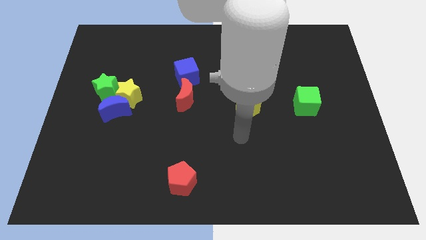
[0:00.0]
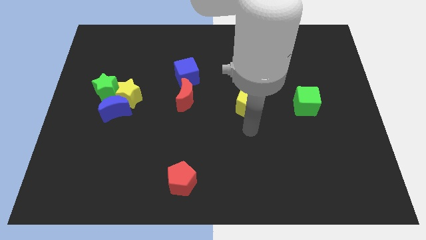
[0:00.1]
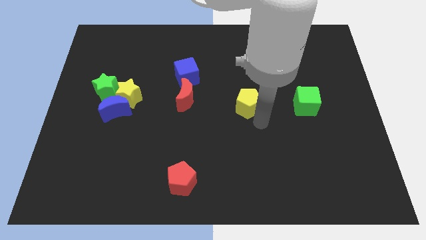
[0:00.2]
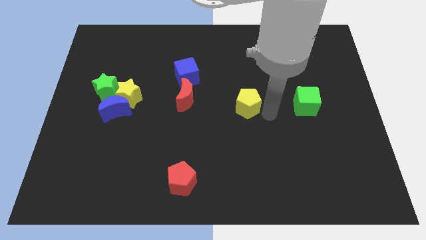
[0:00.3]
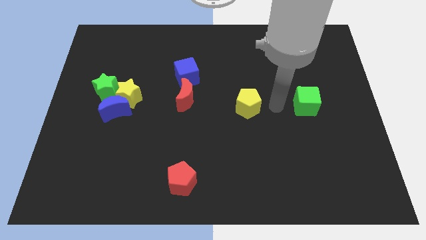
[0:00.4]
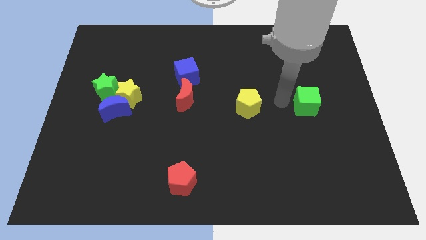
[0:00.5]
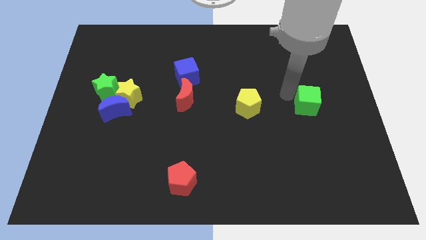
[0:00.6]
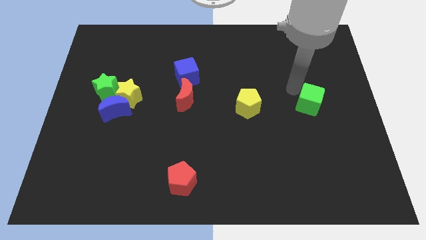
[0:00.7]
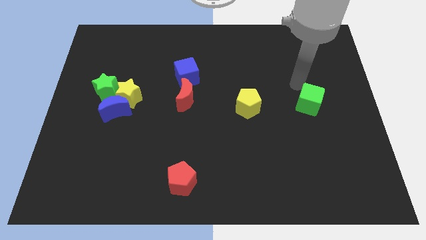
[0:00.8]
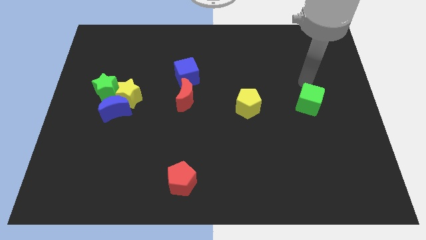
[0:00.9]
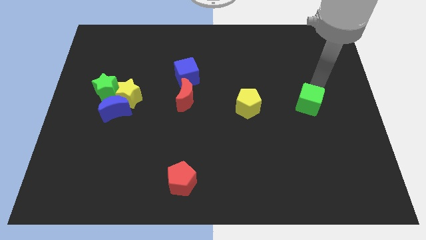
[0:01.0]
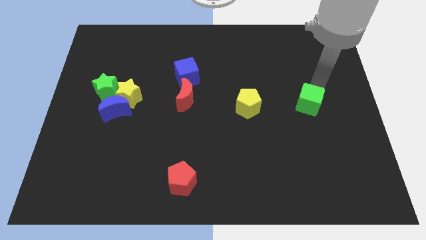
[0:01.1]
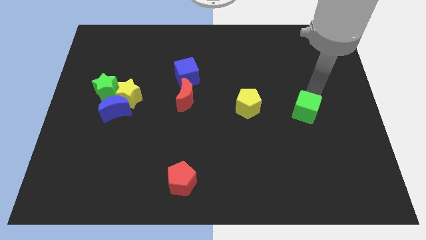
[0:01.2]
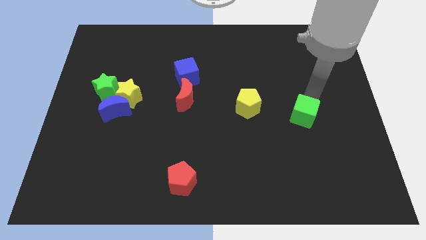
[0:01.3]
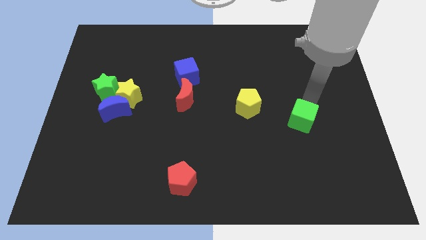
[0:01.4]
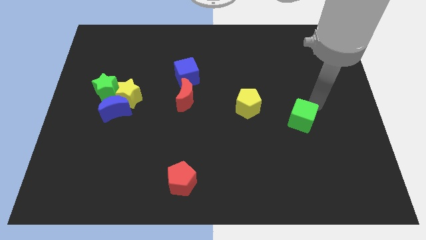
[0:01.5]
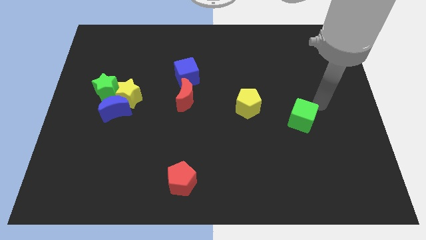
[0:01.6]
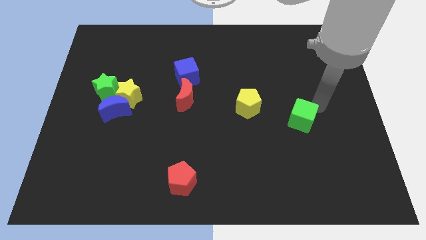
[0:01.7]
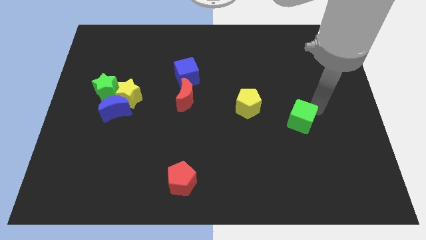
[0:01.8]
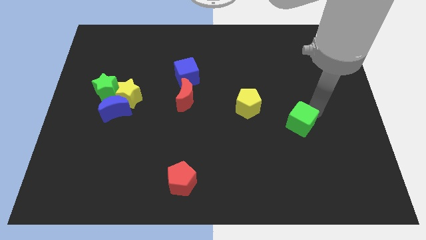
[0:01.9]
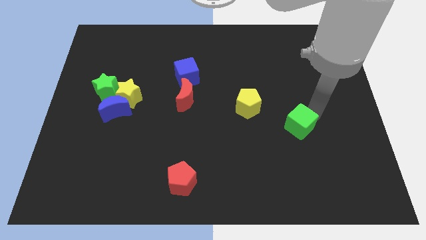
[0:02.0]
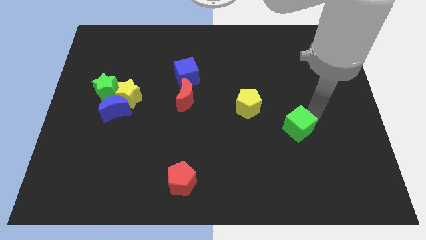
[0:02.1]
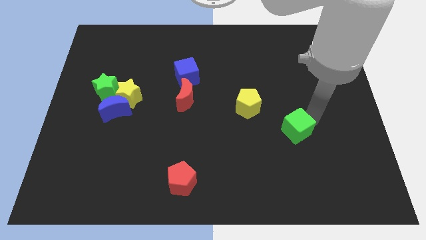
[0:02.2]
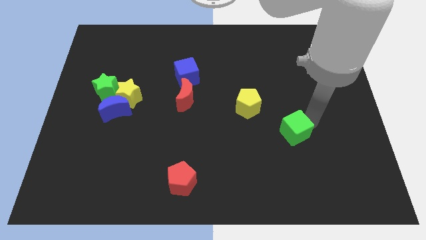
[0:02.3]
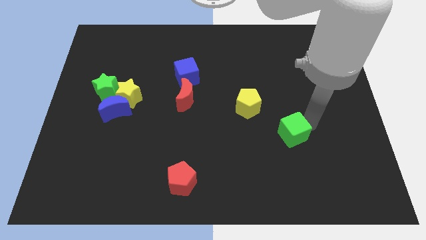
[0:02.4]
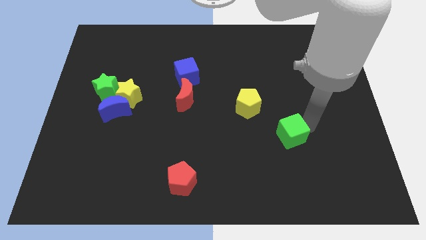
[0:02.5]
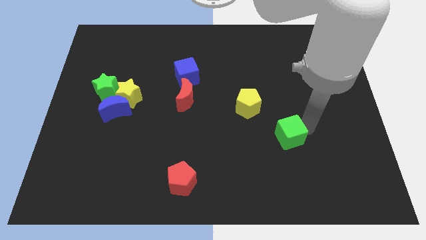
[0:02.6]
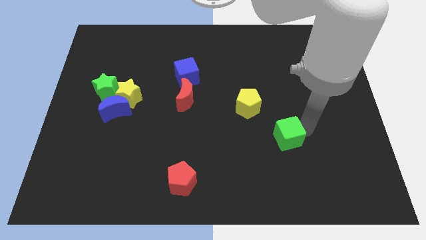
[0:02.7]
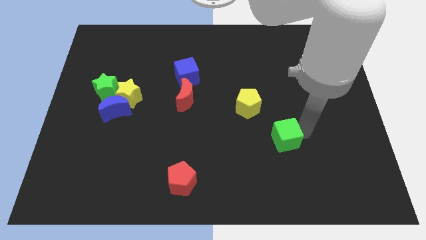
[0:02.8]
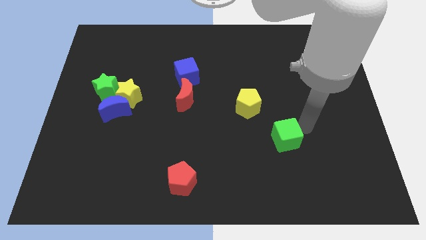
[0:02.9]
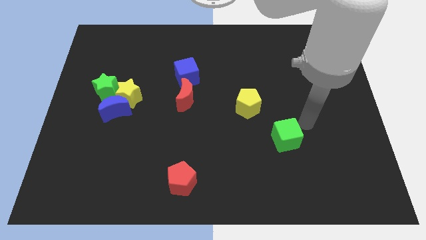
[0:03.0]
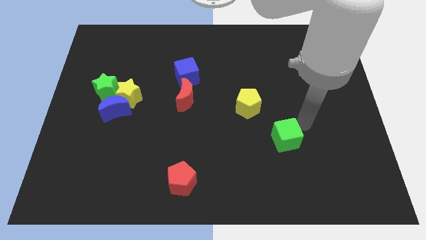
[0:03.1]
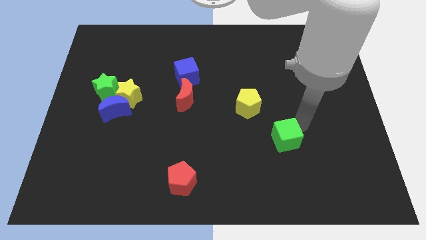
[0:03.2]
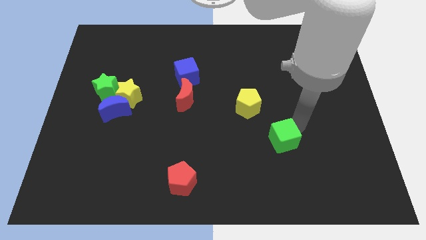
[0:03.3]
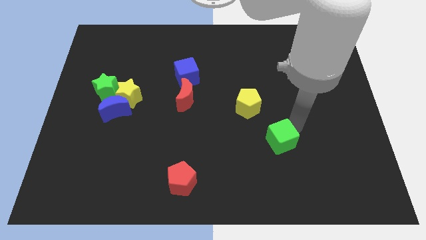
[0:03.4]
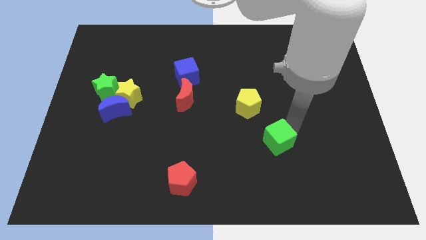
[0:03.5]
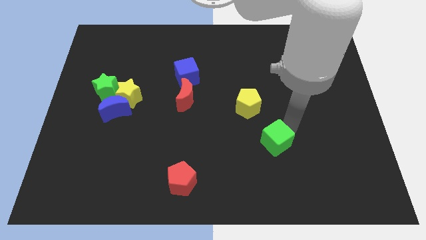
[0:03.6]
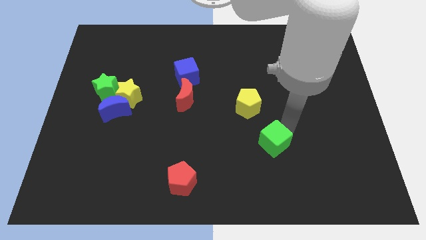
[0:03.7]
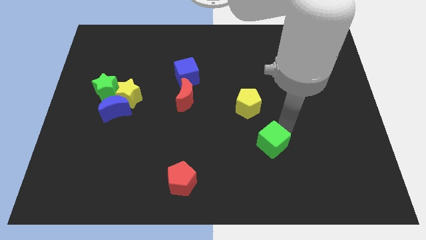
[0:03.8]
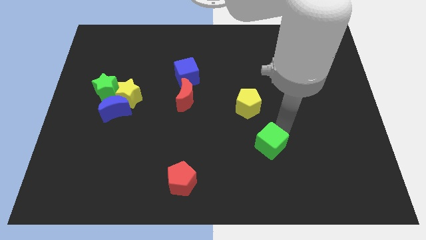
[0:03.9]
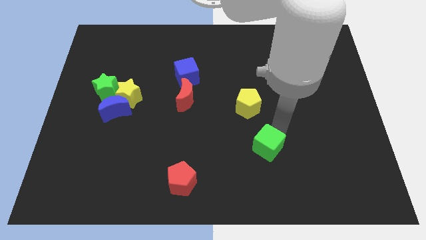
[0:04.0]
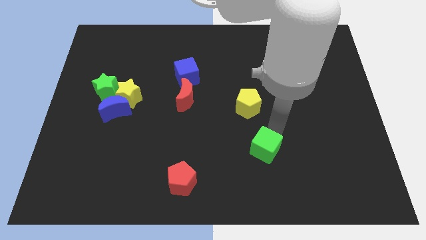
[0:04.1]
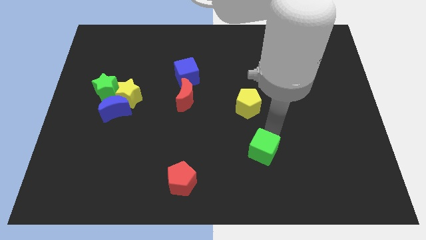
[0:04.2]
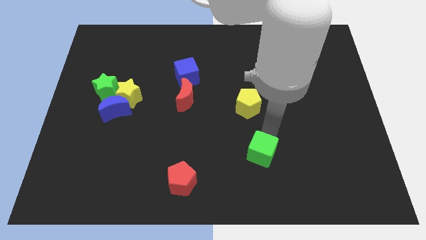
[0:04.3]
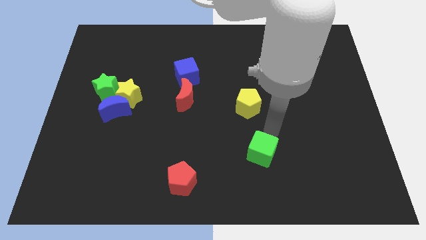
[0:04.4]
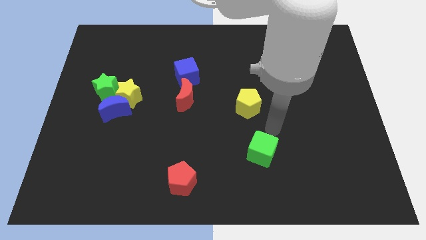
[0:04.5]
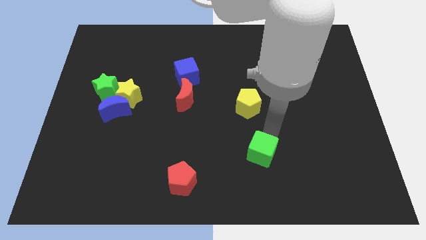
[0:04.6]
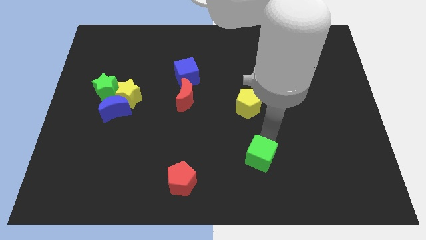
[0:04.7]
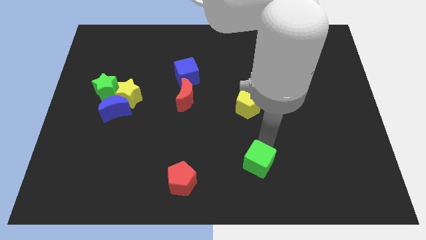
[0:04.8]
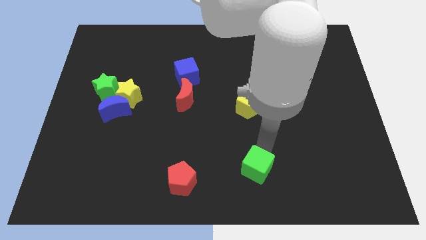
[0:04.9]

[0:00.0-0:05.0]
put the green cube to the bottom side

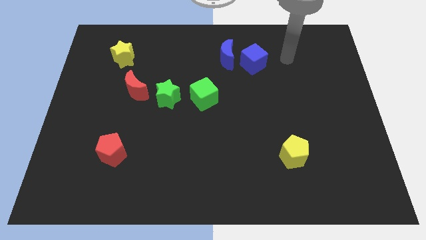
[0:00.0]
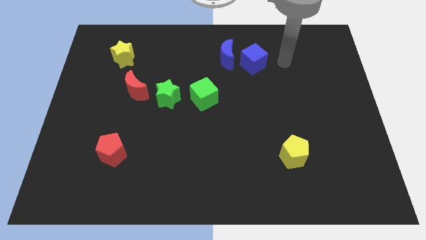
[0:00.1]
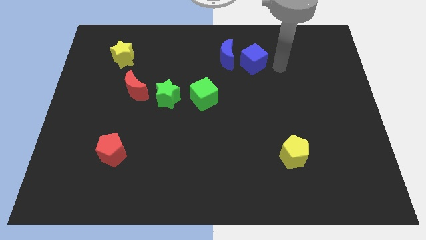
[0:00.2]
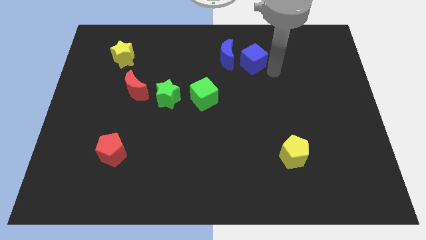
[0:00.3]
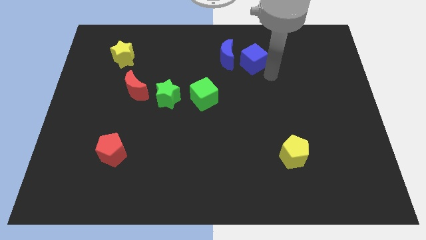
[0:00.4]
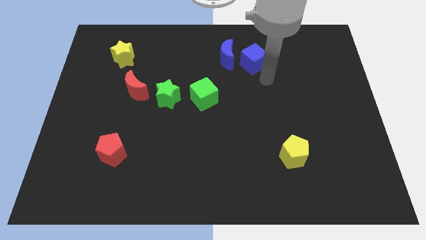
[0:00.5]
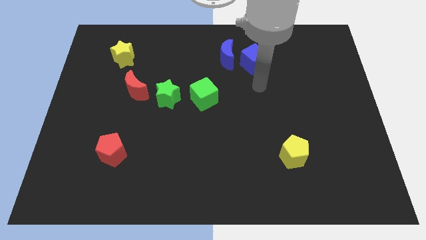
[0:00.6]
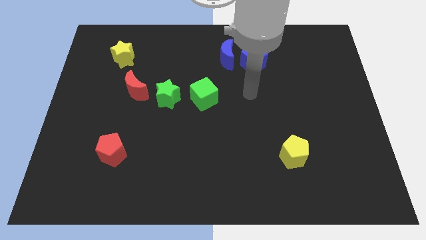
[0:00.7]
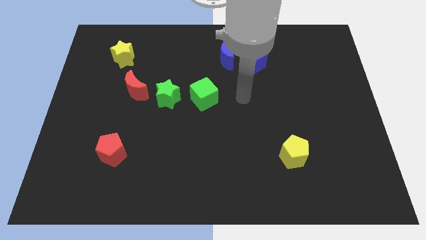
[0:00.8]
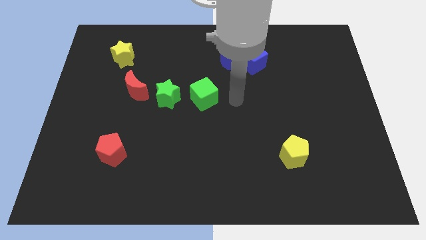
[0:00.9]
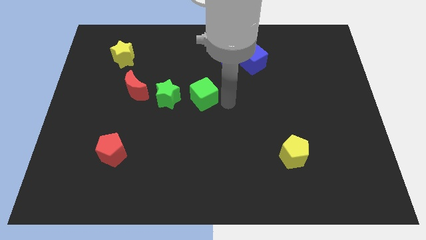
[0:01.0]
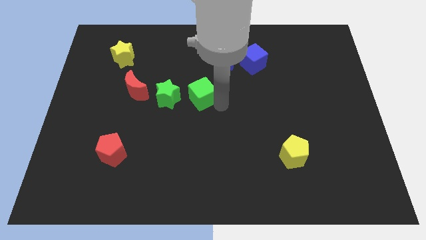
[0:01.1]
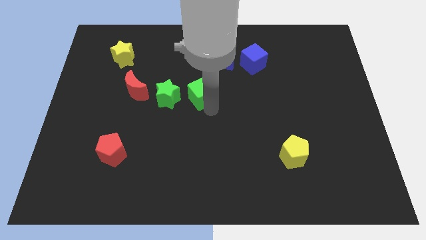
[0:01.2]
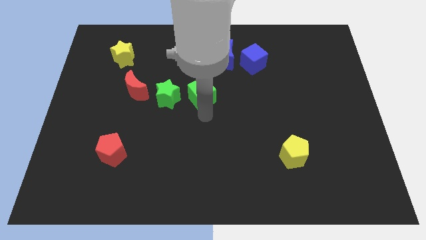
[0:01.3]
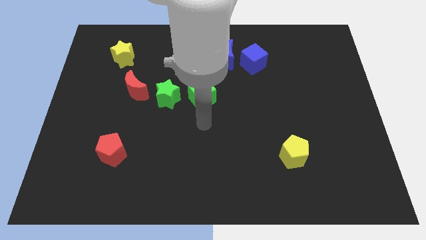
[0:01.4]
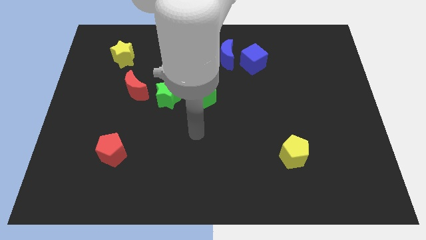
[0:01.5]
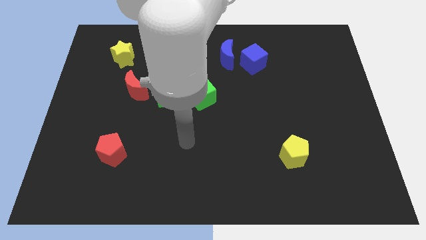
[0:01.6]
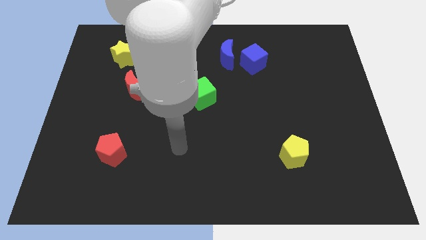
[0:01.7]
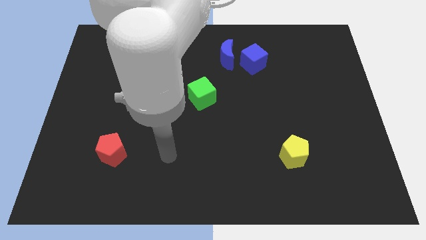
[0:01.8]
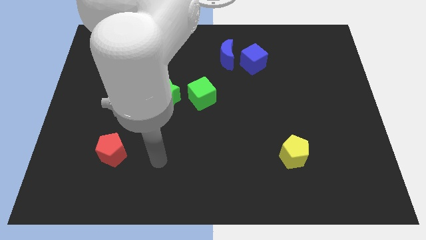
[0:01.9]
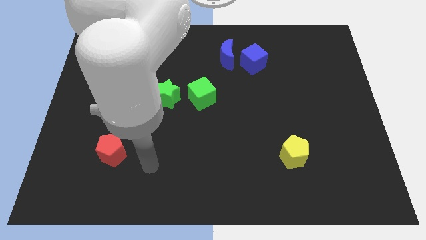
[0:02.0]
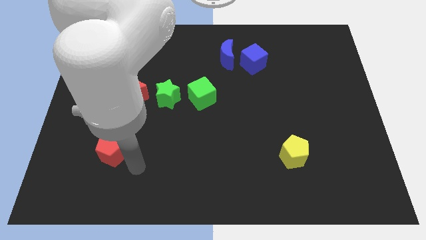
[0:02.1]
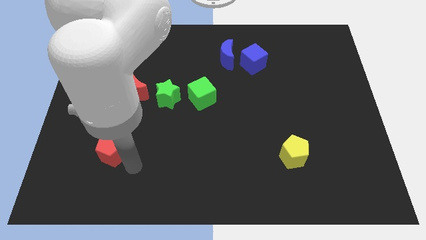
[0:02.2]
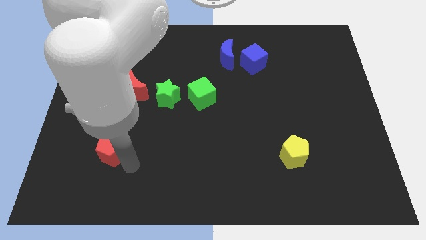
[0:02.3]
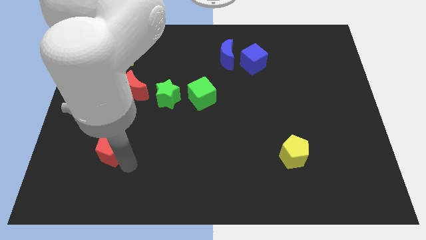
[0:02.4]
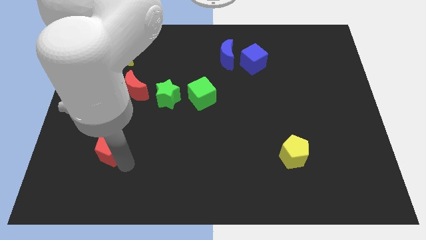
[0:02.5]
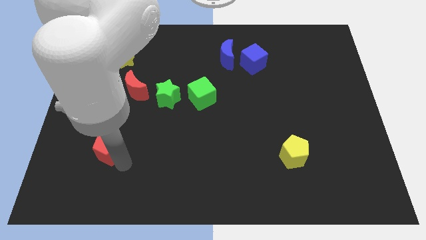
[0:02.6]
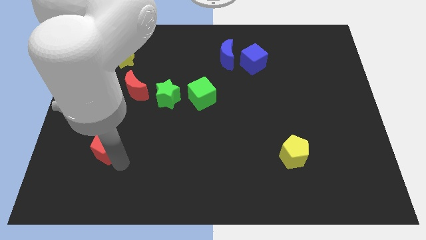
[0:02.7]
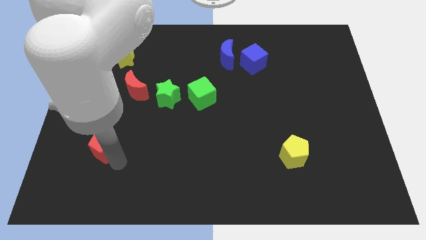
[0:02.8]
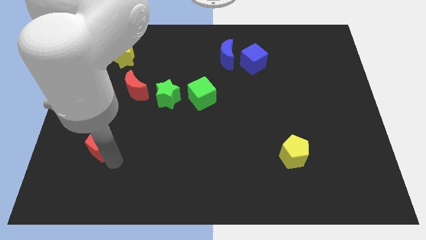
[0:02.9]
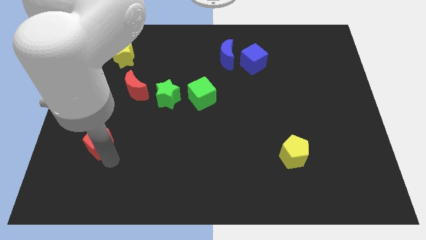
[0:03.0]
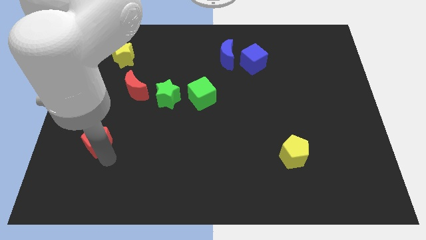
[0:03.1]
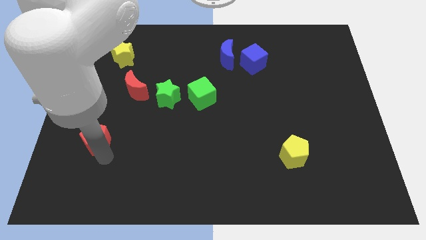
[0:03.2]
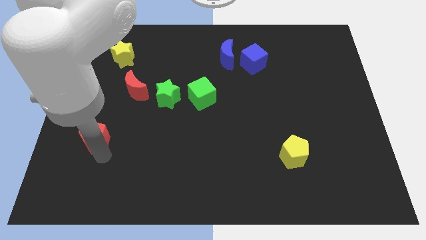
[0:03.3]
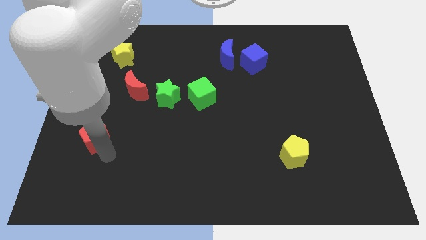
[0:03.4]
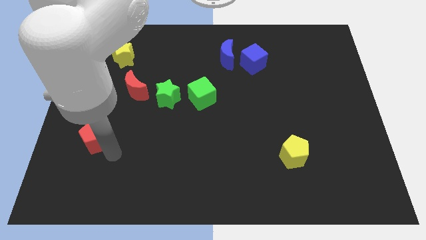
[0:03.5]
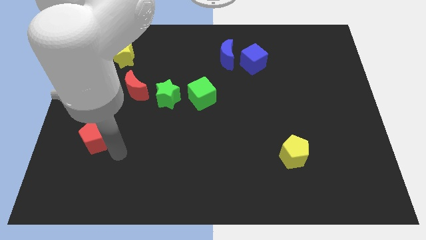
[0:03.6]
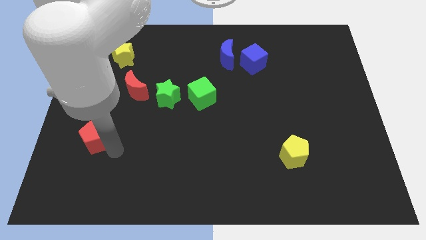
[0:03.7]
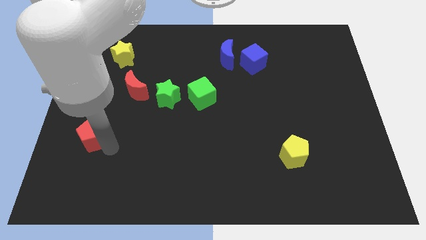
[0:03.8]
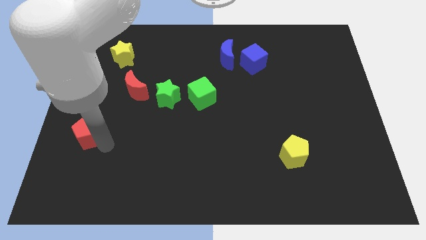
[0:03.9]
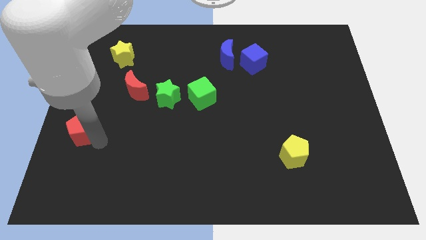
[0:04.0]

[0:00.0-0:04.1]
move the red pentagon to the left side
